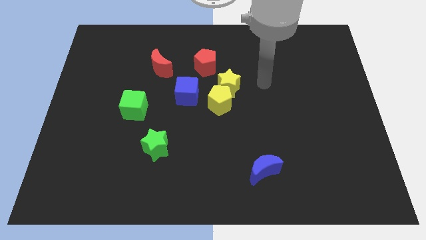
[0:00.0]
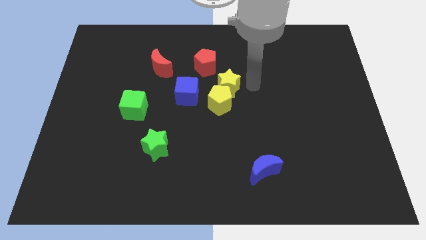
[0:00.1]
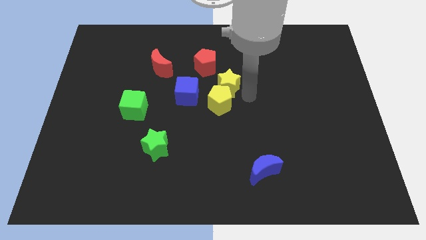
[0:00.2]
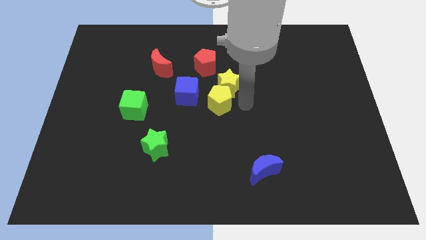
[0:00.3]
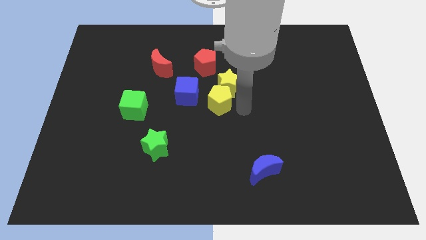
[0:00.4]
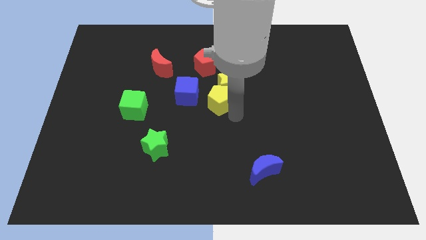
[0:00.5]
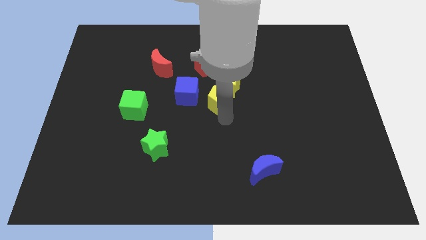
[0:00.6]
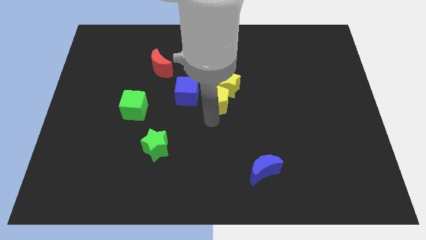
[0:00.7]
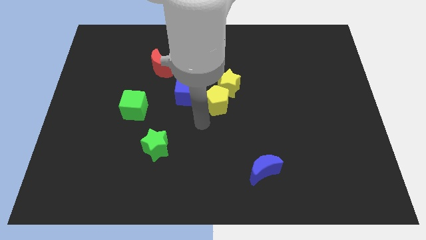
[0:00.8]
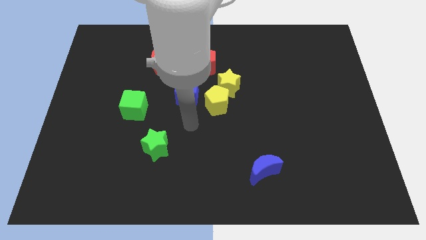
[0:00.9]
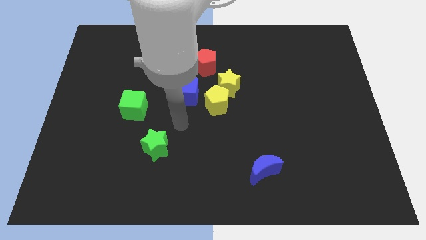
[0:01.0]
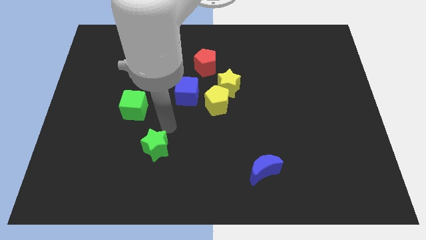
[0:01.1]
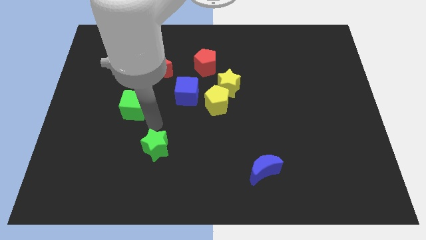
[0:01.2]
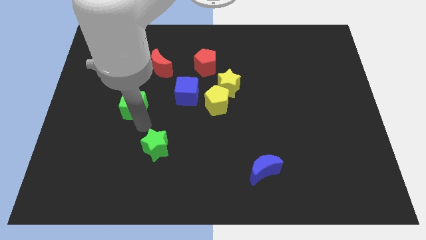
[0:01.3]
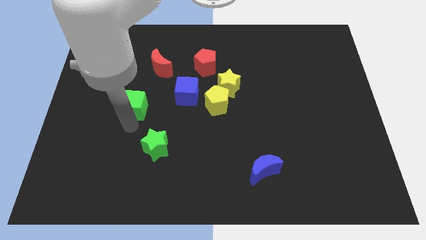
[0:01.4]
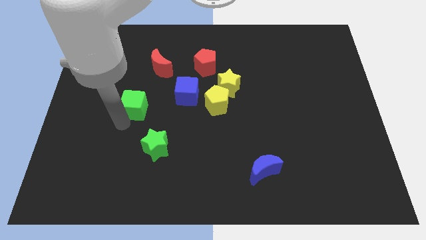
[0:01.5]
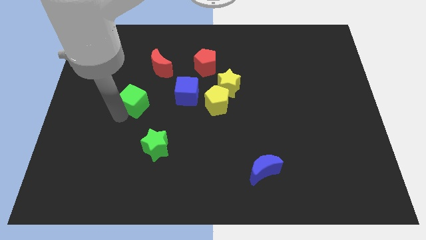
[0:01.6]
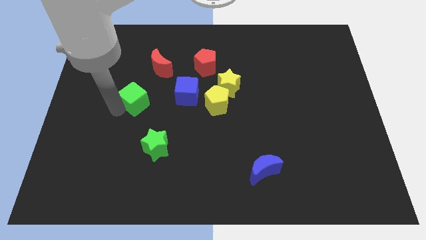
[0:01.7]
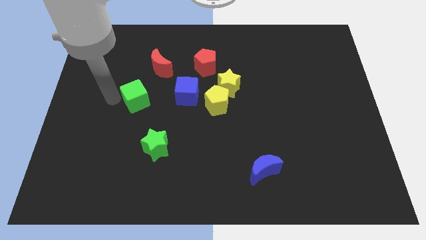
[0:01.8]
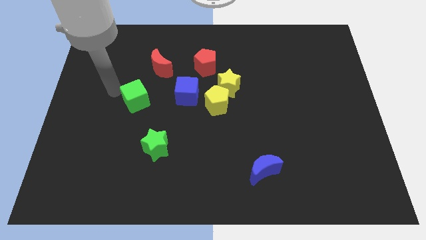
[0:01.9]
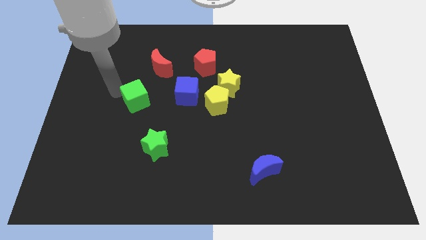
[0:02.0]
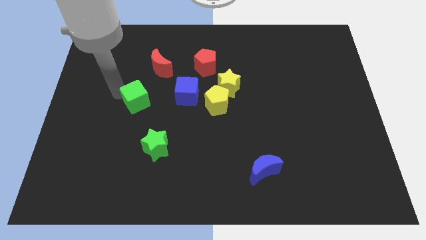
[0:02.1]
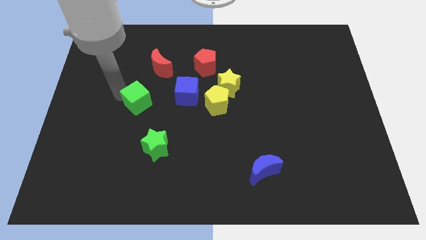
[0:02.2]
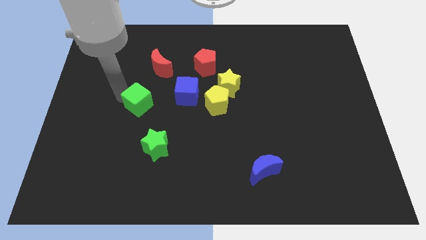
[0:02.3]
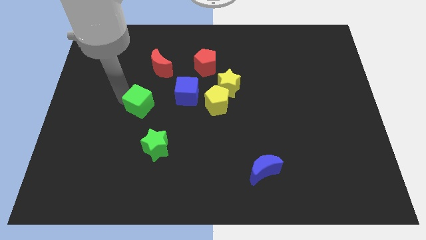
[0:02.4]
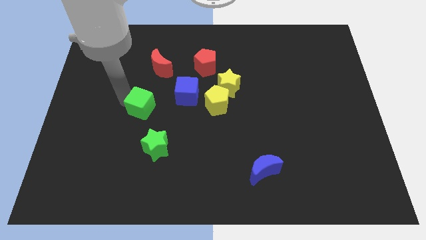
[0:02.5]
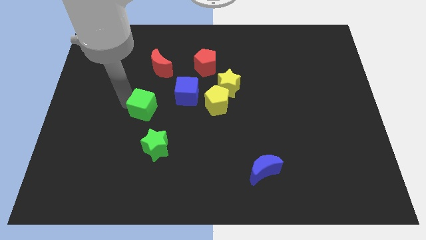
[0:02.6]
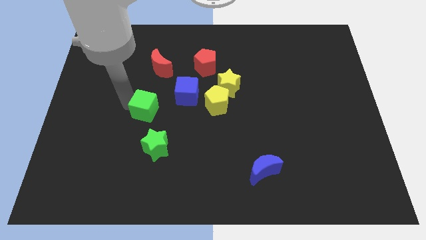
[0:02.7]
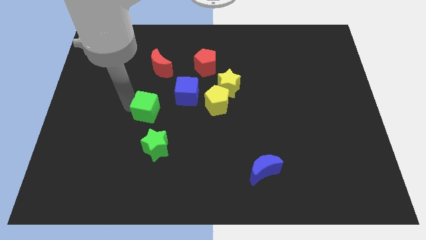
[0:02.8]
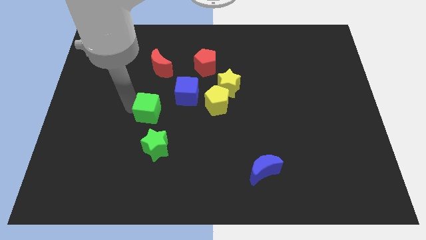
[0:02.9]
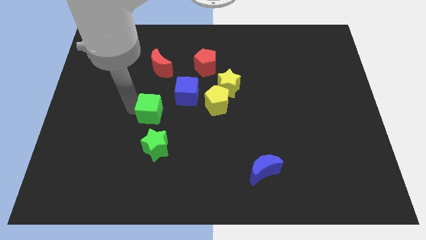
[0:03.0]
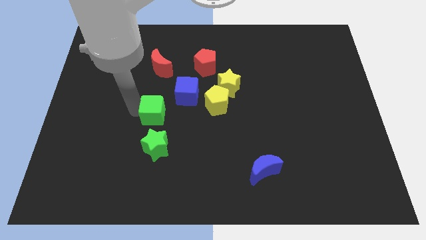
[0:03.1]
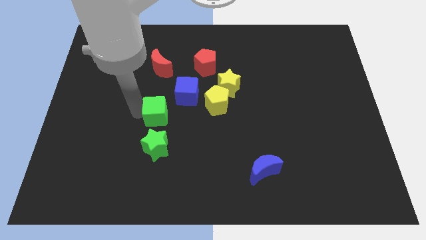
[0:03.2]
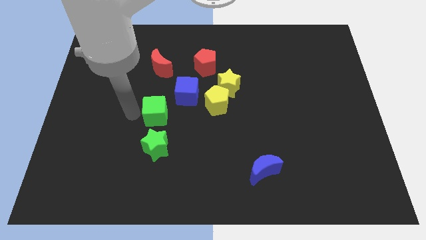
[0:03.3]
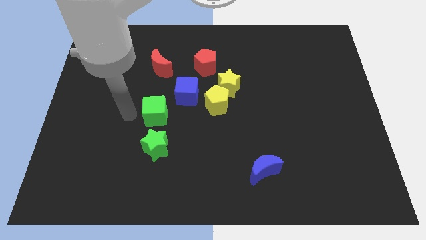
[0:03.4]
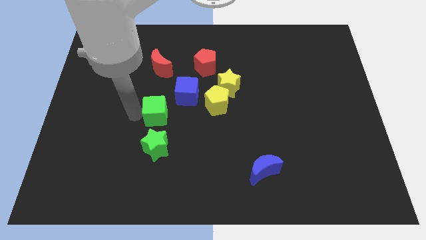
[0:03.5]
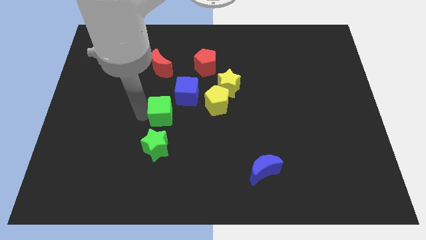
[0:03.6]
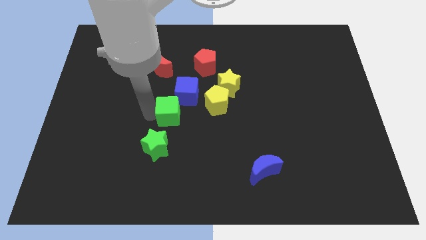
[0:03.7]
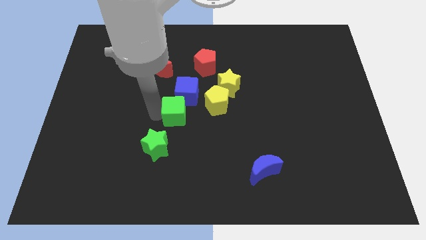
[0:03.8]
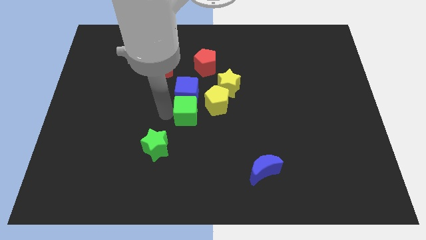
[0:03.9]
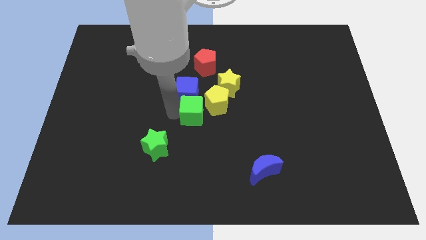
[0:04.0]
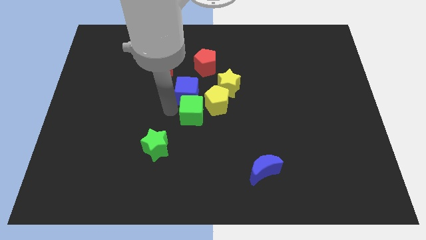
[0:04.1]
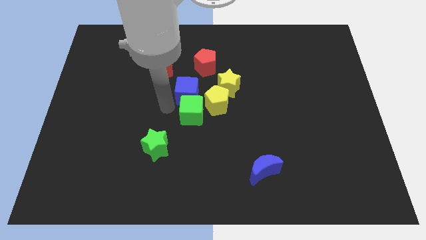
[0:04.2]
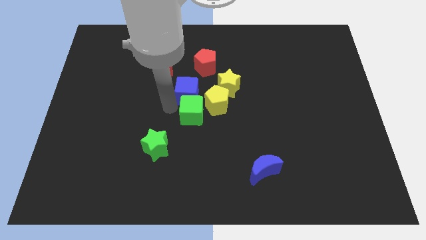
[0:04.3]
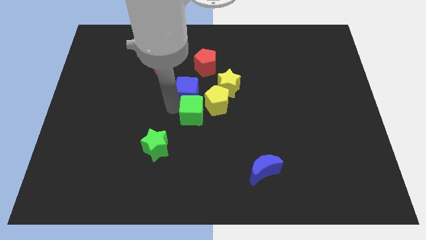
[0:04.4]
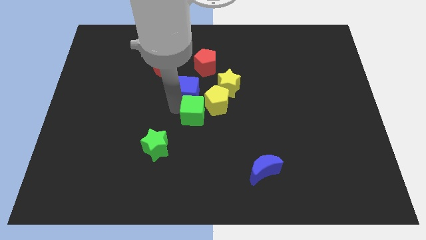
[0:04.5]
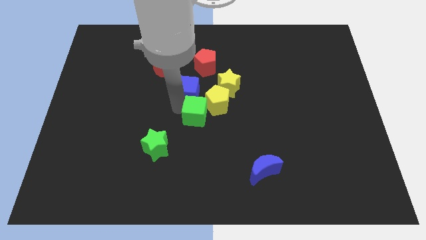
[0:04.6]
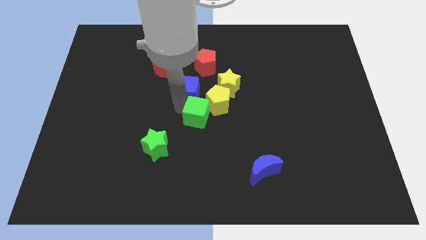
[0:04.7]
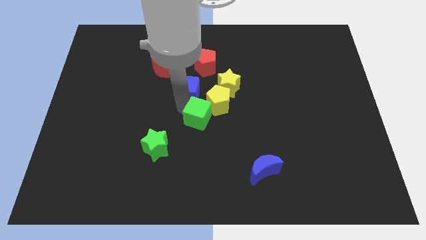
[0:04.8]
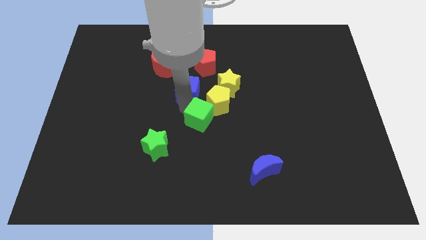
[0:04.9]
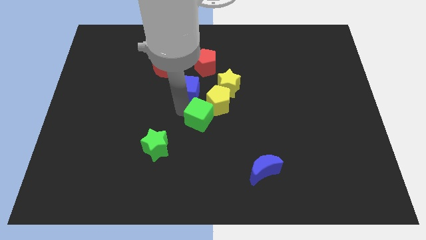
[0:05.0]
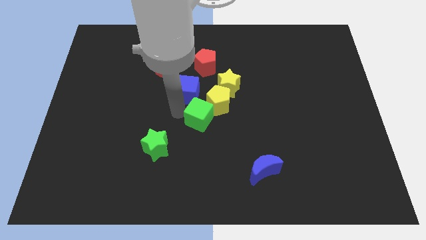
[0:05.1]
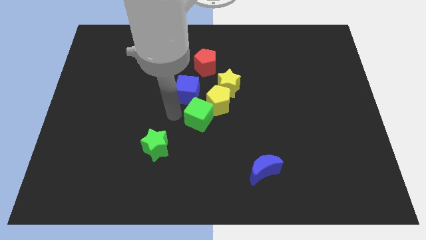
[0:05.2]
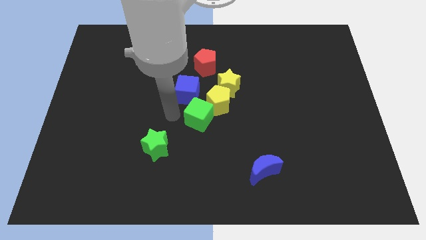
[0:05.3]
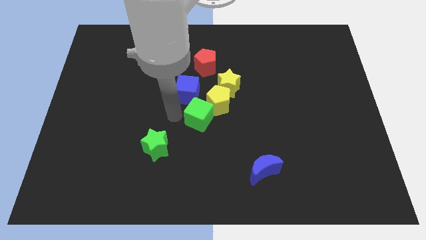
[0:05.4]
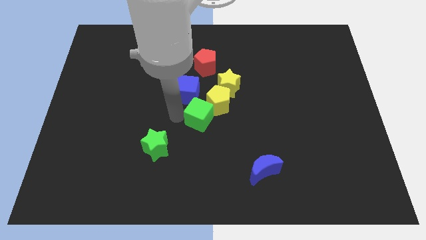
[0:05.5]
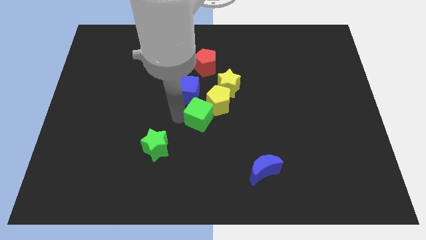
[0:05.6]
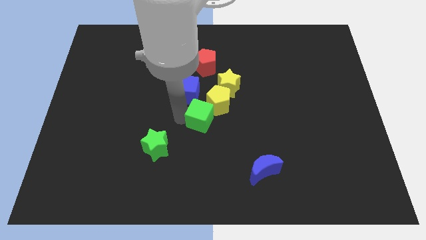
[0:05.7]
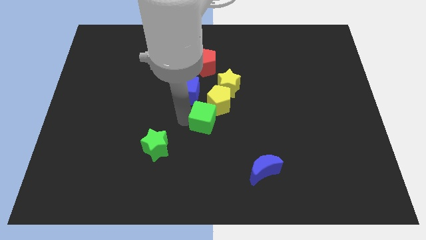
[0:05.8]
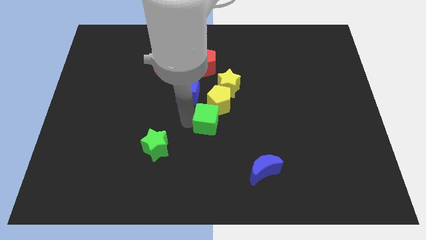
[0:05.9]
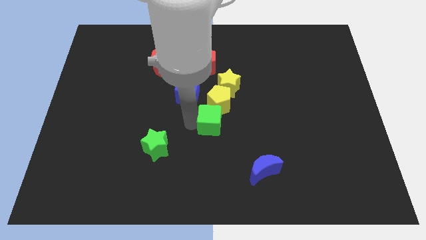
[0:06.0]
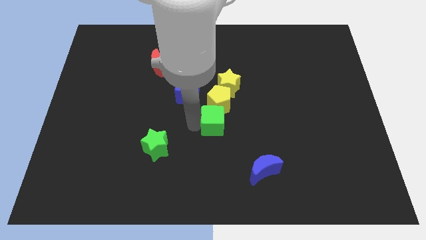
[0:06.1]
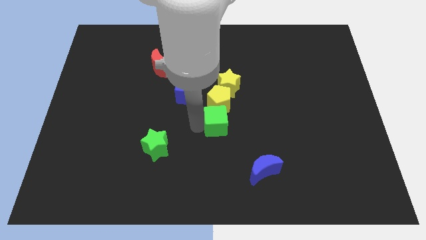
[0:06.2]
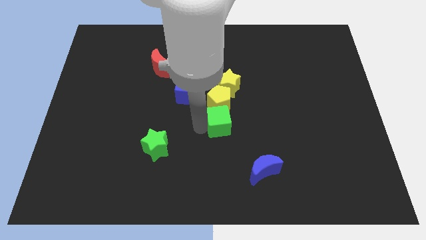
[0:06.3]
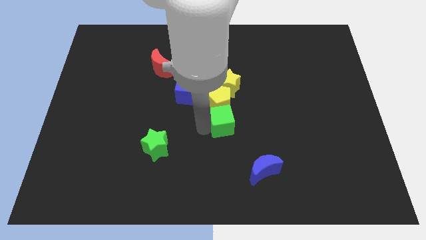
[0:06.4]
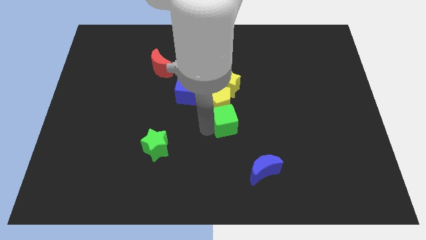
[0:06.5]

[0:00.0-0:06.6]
move the green cube to the right

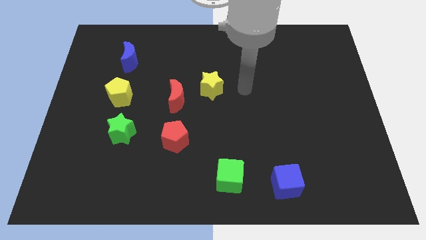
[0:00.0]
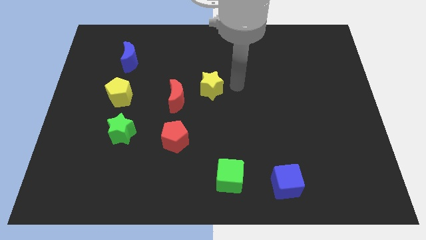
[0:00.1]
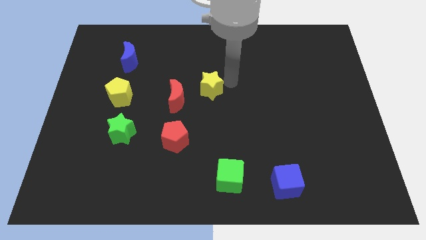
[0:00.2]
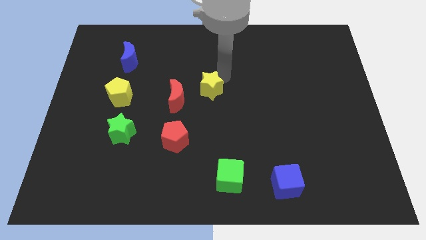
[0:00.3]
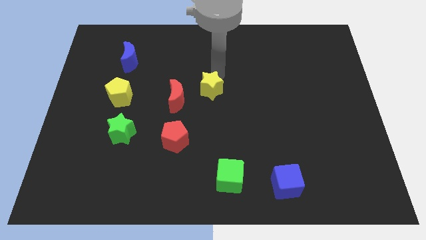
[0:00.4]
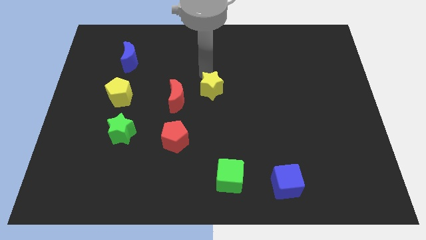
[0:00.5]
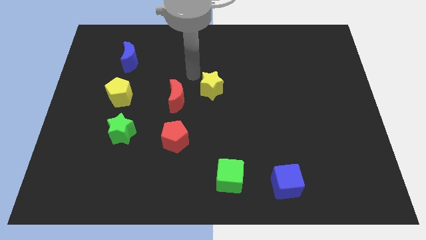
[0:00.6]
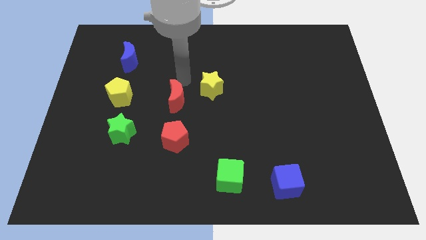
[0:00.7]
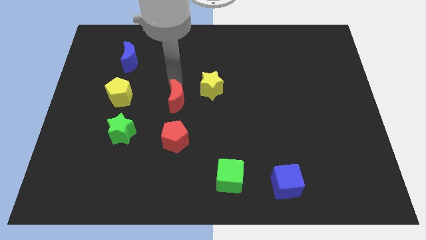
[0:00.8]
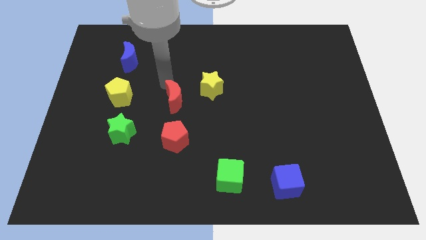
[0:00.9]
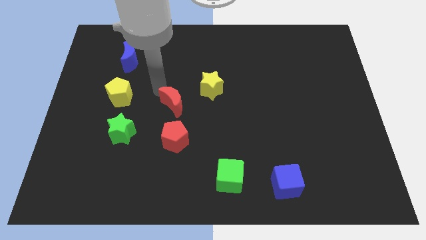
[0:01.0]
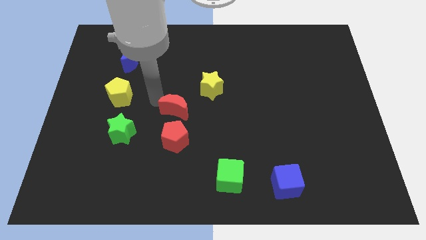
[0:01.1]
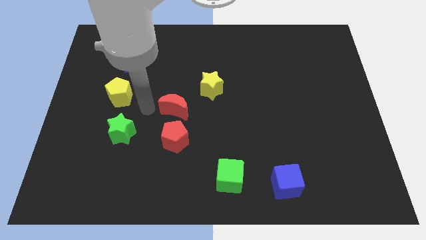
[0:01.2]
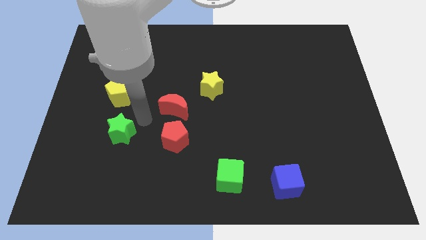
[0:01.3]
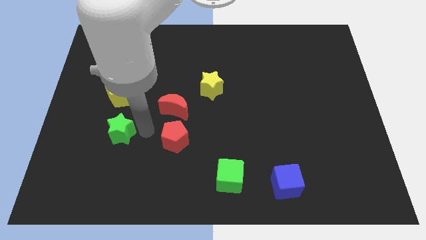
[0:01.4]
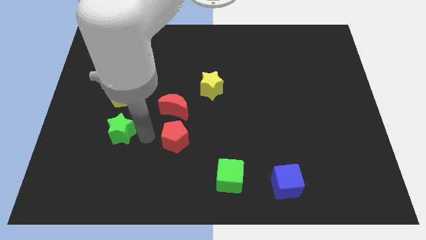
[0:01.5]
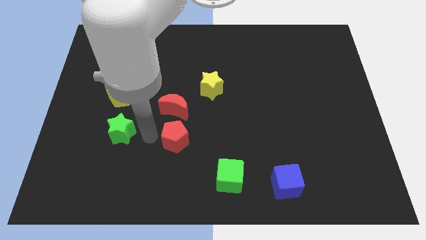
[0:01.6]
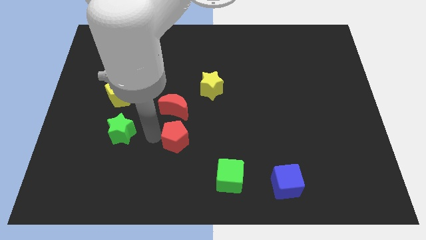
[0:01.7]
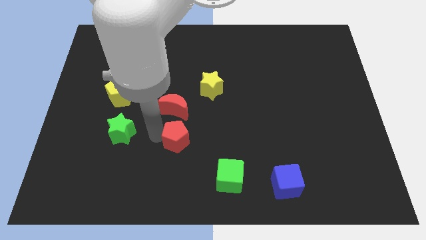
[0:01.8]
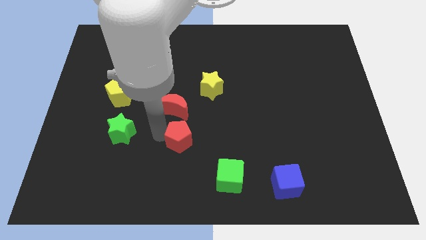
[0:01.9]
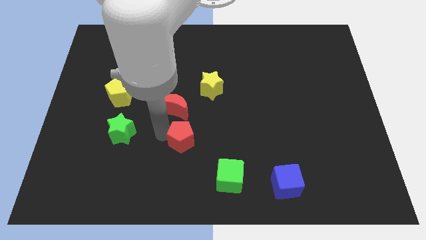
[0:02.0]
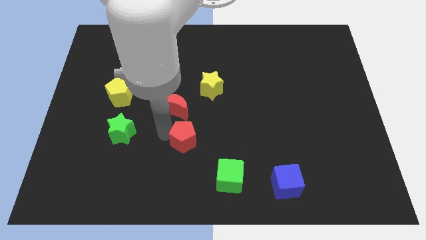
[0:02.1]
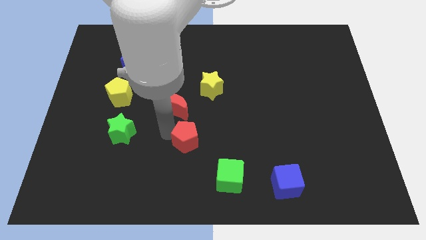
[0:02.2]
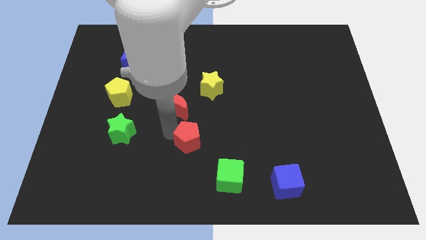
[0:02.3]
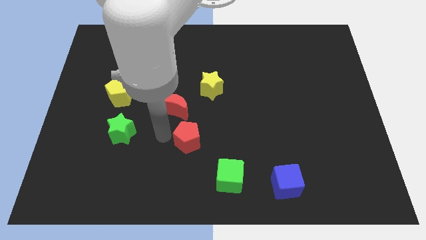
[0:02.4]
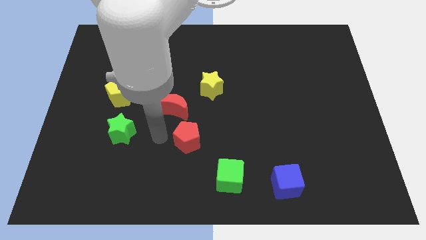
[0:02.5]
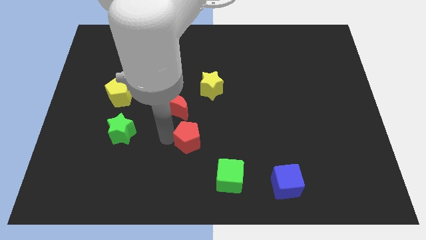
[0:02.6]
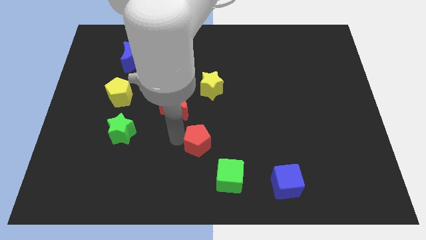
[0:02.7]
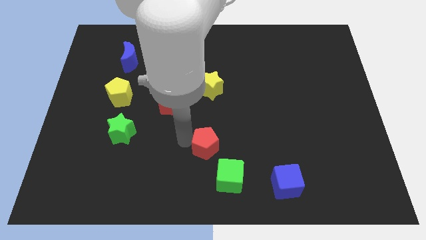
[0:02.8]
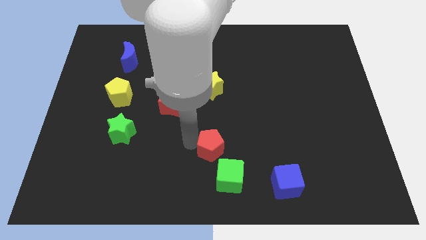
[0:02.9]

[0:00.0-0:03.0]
slide the red pentagon somewhat right
